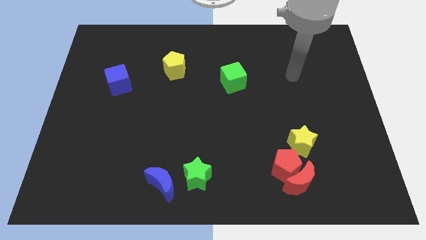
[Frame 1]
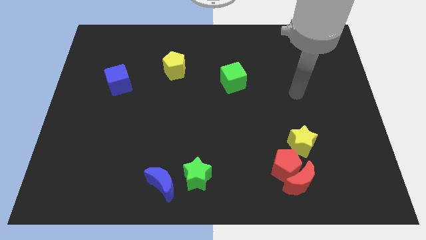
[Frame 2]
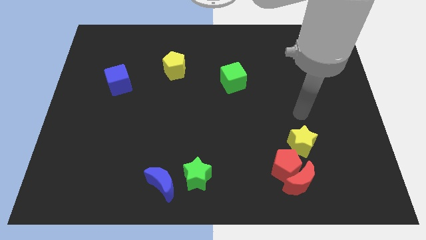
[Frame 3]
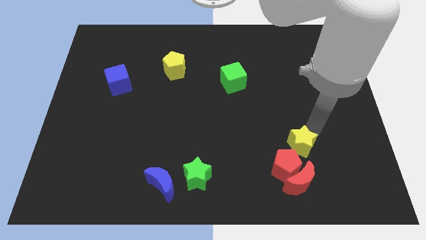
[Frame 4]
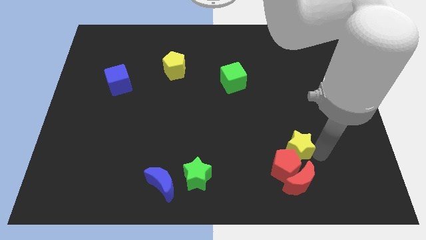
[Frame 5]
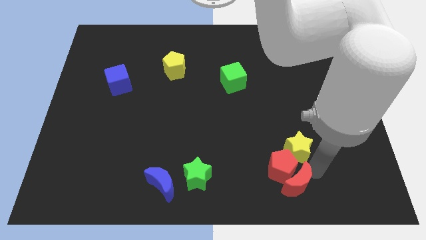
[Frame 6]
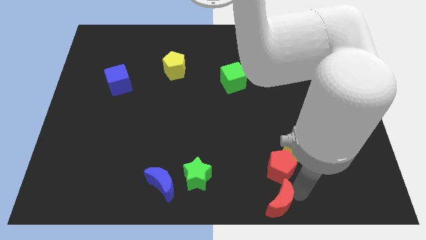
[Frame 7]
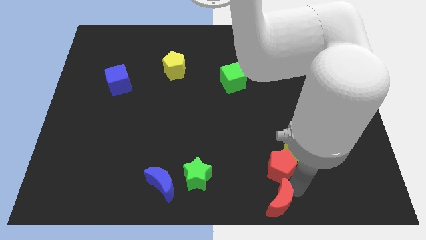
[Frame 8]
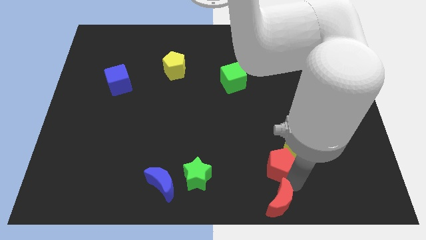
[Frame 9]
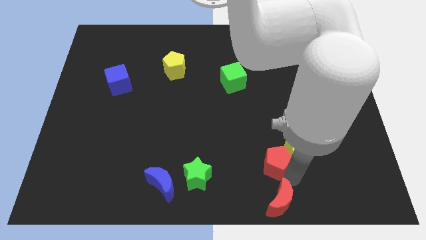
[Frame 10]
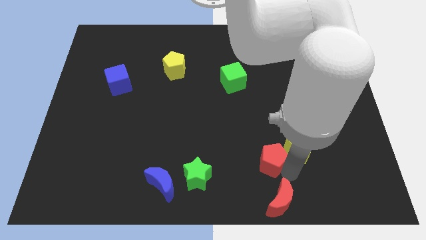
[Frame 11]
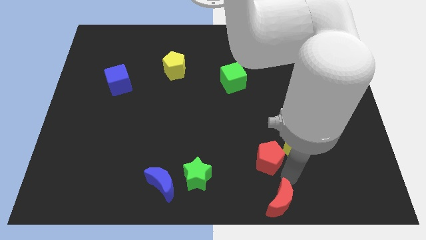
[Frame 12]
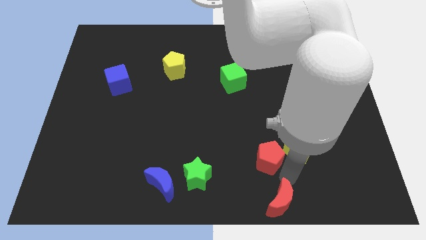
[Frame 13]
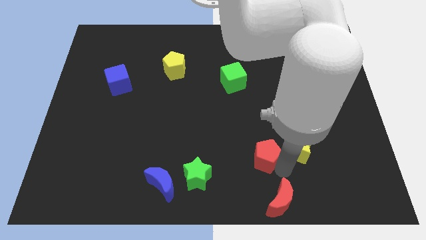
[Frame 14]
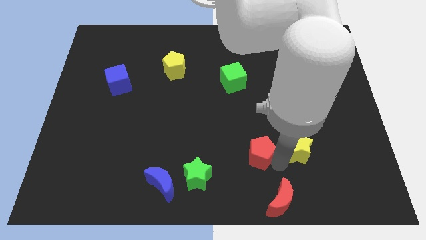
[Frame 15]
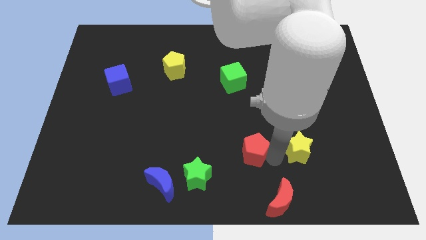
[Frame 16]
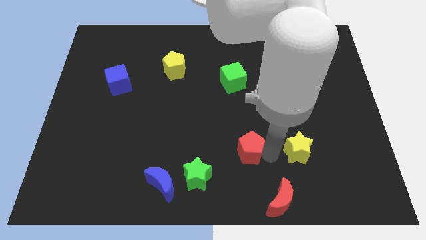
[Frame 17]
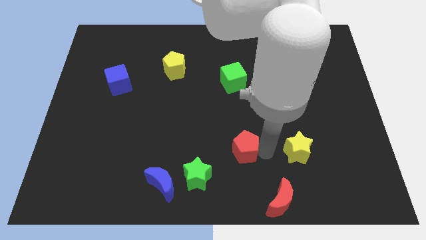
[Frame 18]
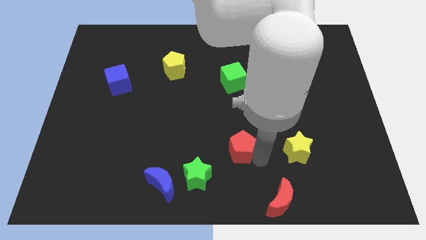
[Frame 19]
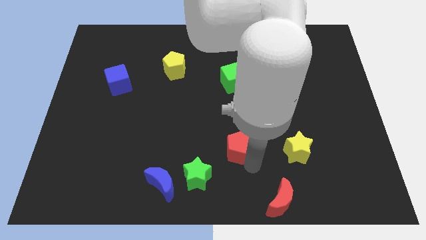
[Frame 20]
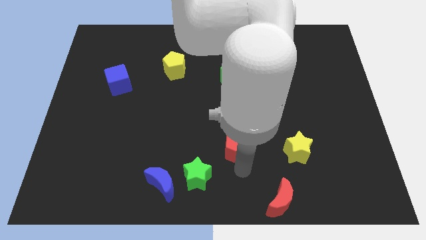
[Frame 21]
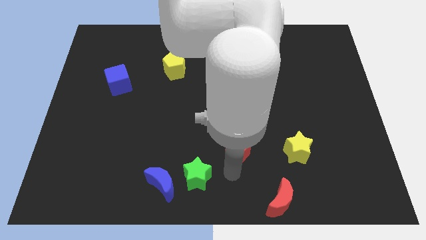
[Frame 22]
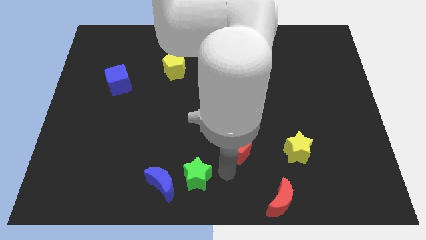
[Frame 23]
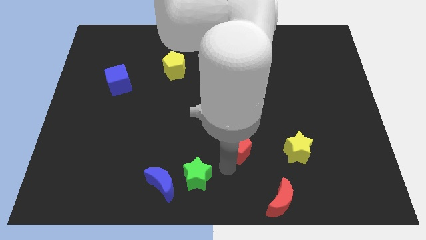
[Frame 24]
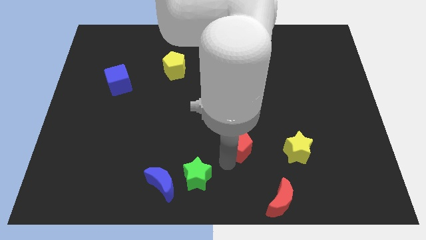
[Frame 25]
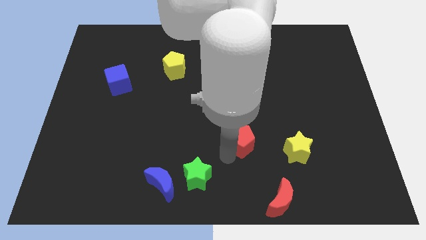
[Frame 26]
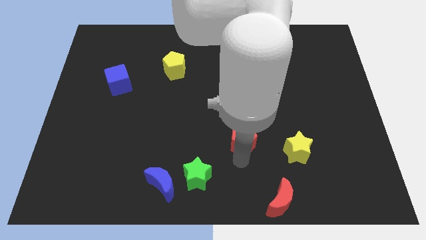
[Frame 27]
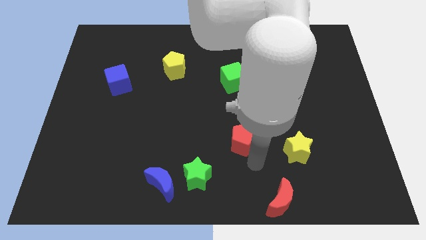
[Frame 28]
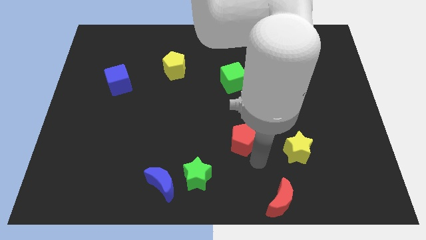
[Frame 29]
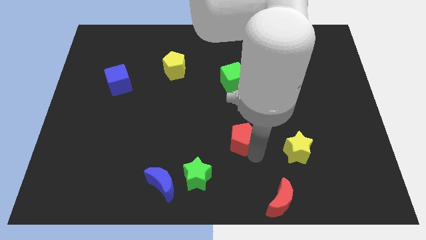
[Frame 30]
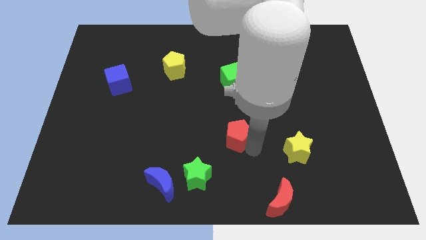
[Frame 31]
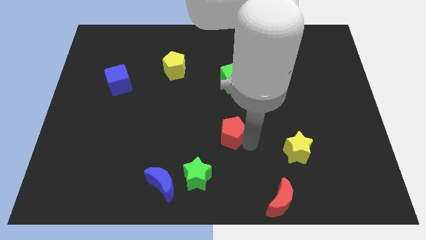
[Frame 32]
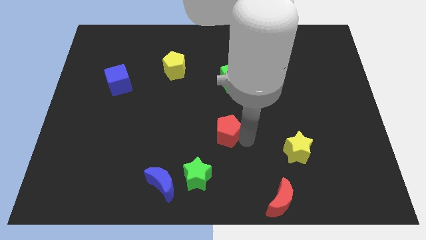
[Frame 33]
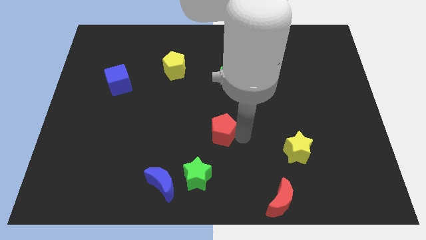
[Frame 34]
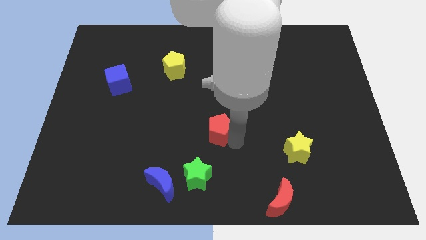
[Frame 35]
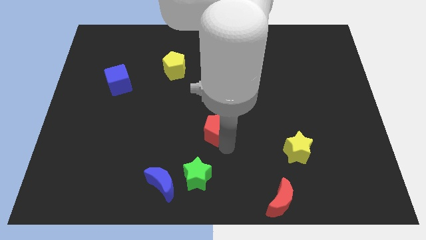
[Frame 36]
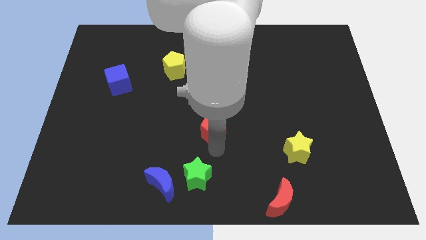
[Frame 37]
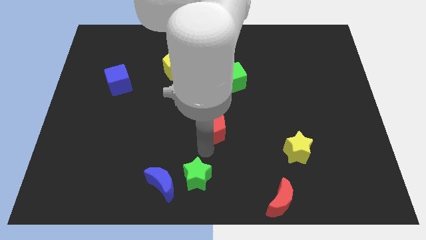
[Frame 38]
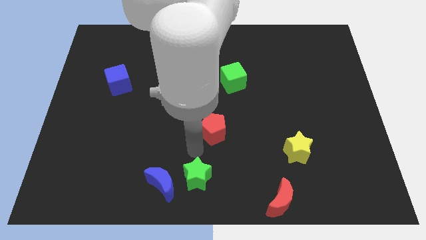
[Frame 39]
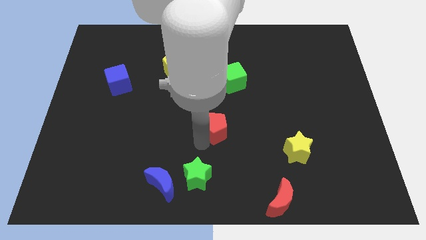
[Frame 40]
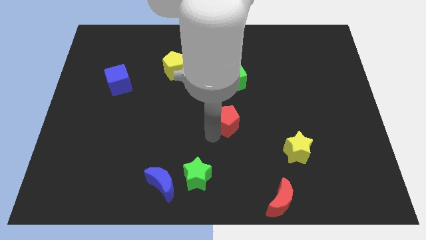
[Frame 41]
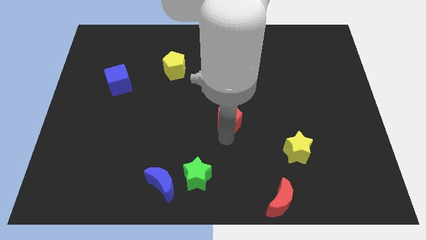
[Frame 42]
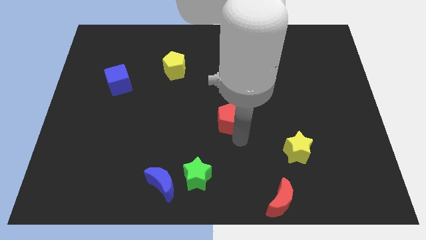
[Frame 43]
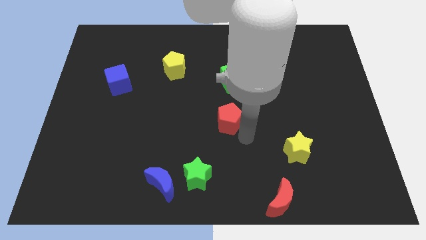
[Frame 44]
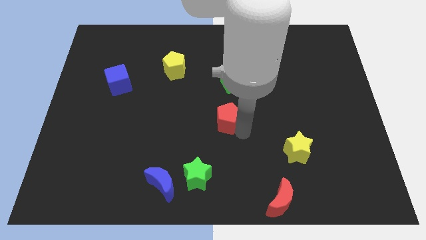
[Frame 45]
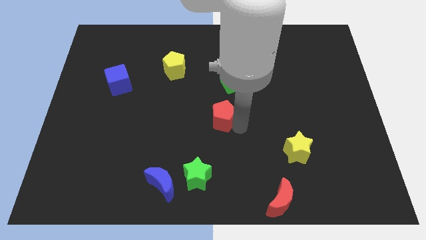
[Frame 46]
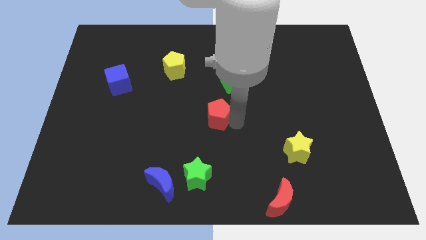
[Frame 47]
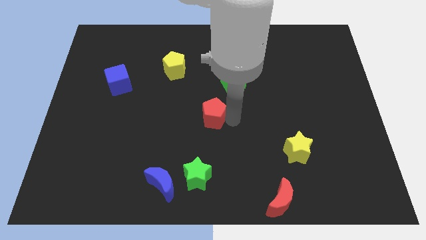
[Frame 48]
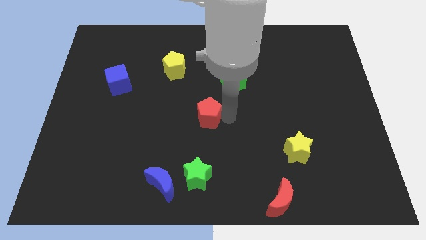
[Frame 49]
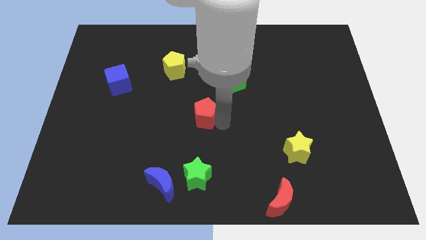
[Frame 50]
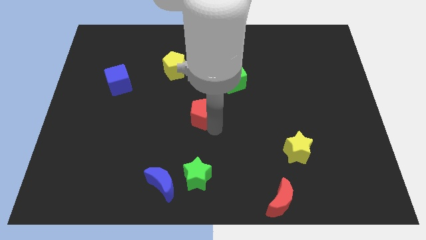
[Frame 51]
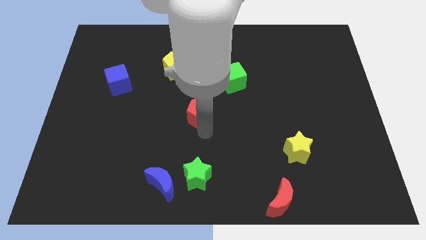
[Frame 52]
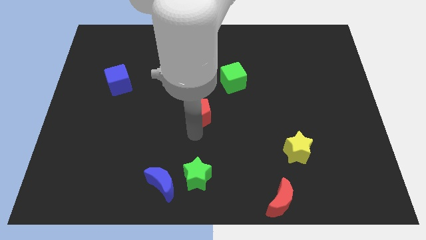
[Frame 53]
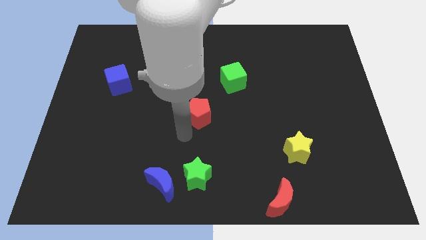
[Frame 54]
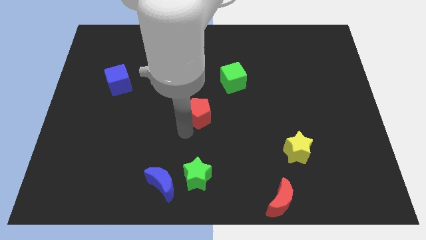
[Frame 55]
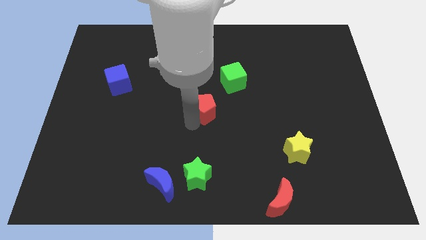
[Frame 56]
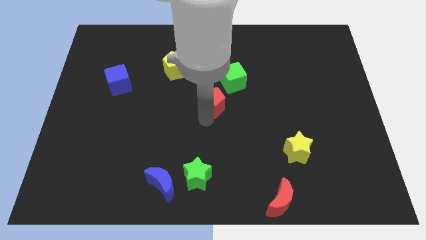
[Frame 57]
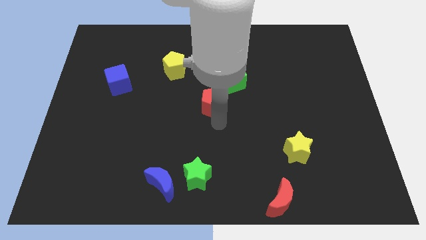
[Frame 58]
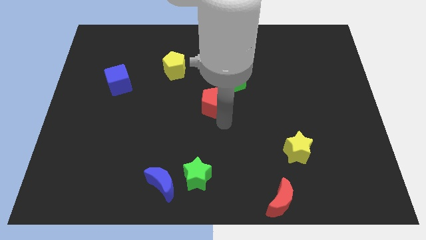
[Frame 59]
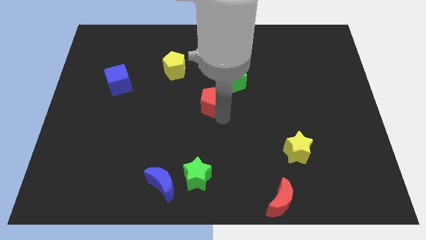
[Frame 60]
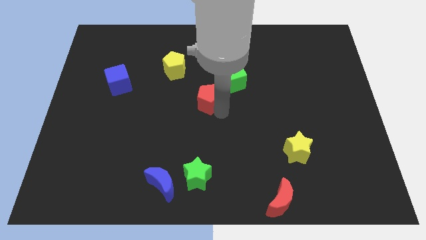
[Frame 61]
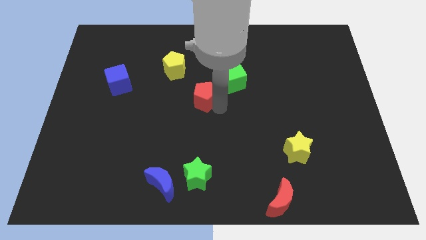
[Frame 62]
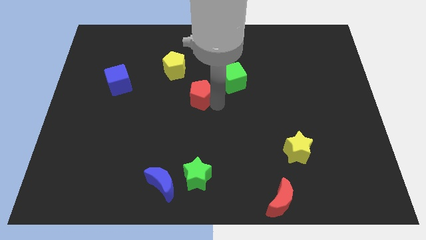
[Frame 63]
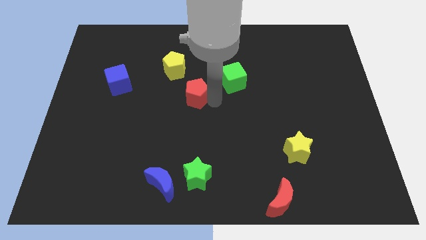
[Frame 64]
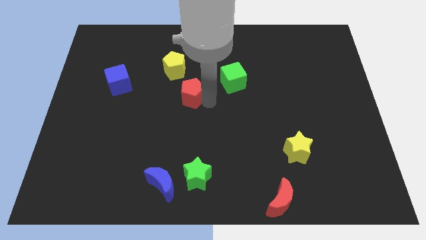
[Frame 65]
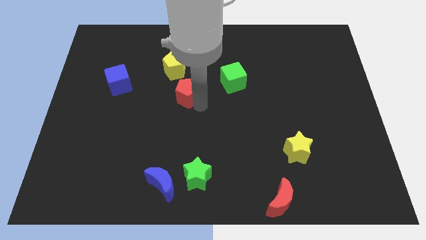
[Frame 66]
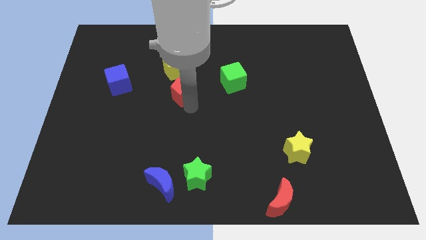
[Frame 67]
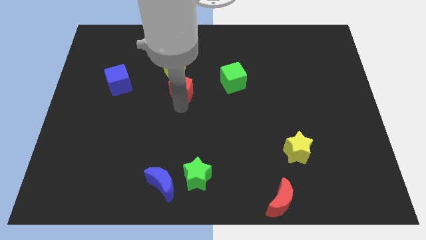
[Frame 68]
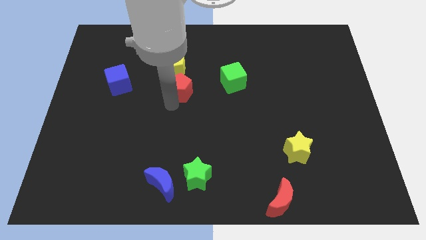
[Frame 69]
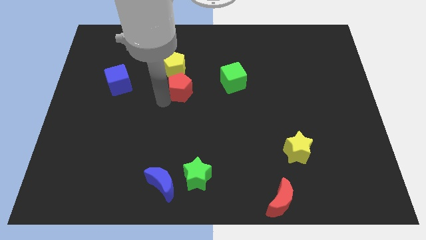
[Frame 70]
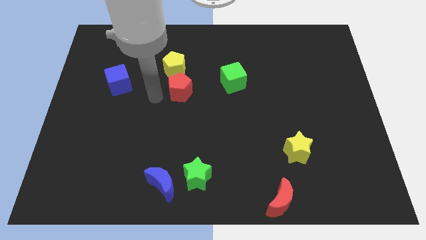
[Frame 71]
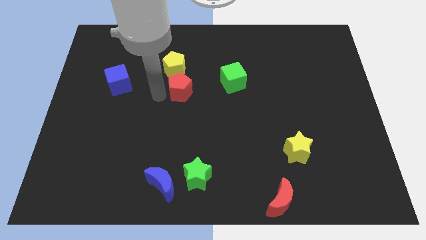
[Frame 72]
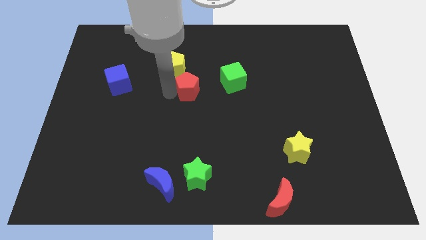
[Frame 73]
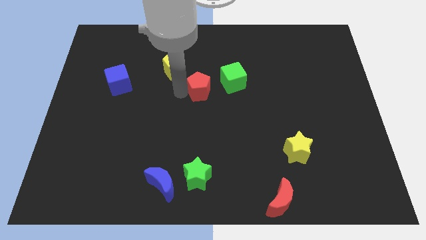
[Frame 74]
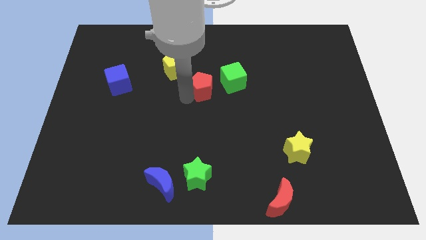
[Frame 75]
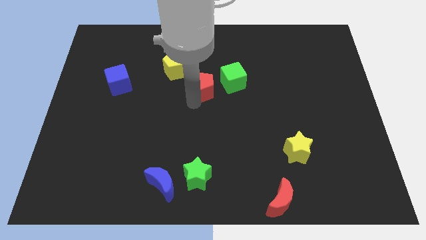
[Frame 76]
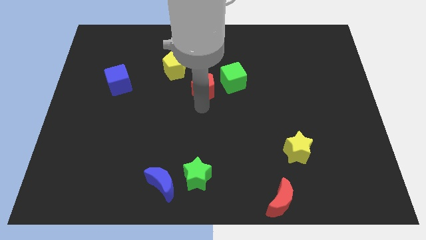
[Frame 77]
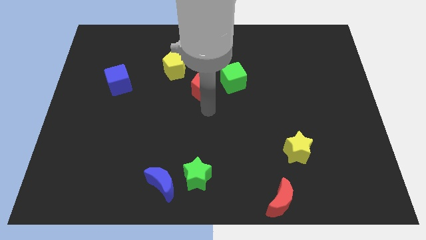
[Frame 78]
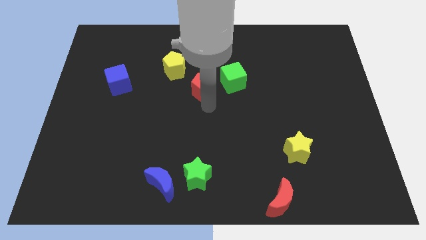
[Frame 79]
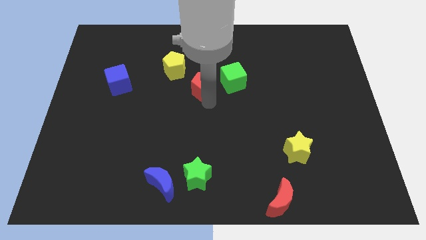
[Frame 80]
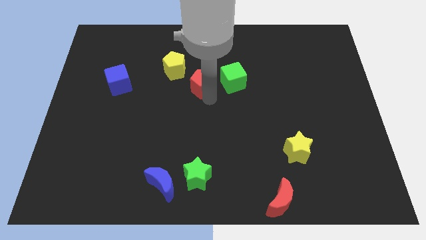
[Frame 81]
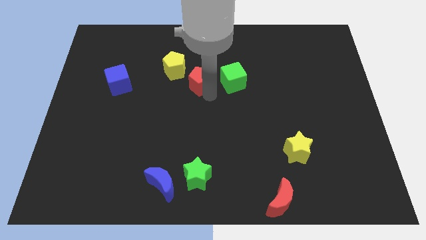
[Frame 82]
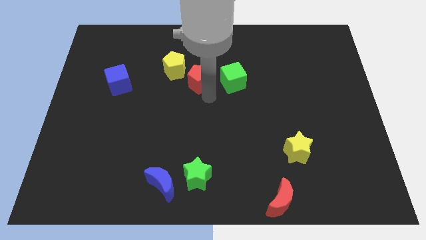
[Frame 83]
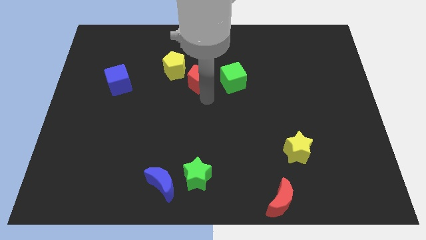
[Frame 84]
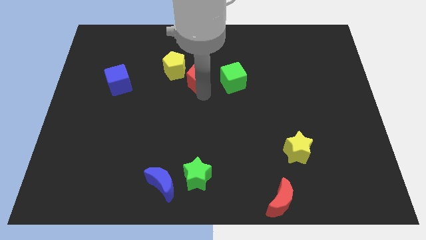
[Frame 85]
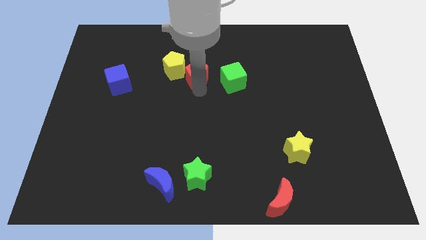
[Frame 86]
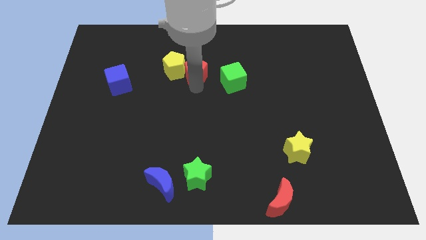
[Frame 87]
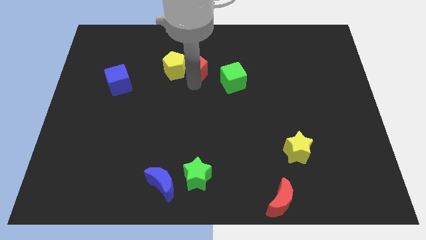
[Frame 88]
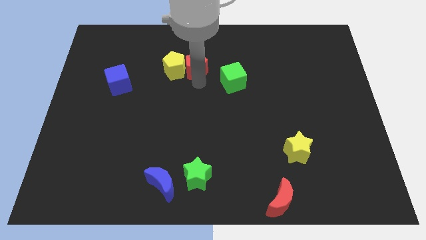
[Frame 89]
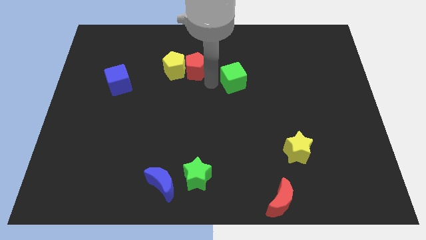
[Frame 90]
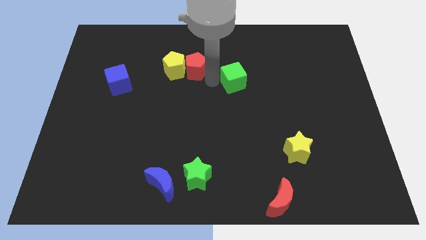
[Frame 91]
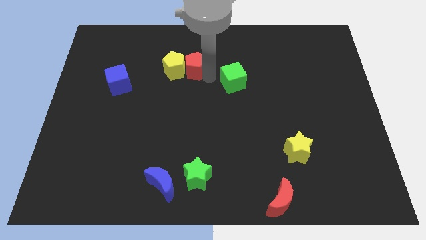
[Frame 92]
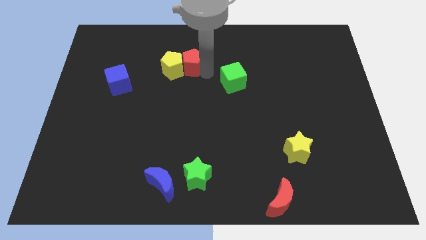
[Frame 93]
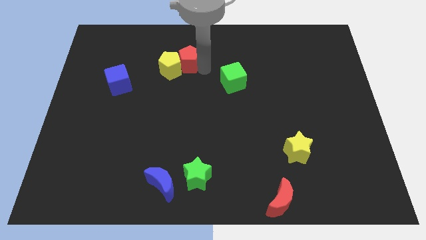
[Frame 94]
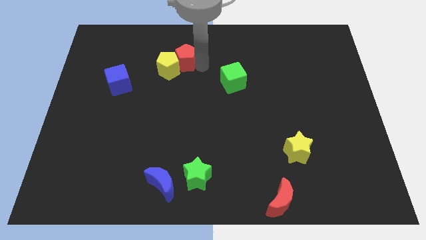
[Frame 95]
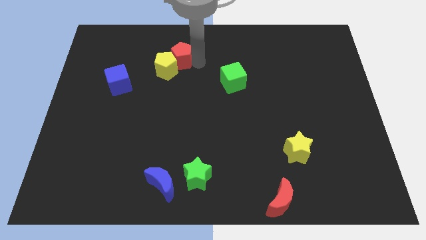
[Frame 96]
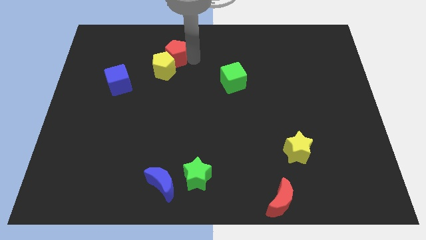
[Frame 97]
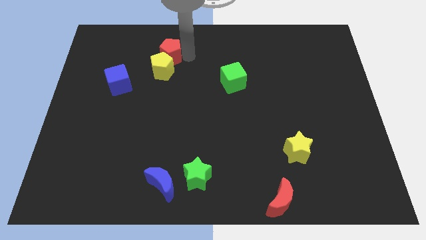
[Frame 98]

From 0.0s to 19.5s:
slide the red pentagon diagonally up and to the left of the yellow pentagon
